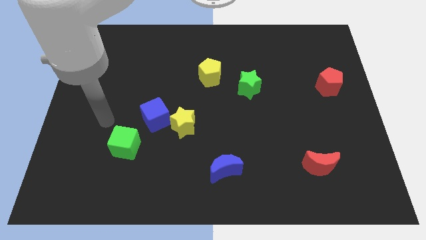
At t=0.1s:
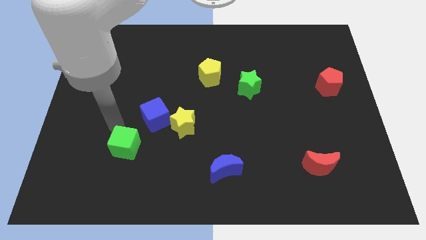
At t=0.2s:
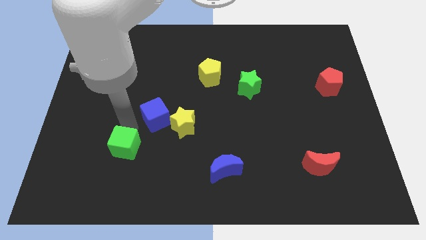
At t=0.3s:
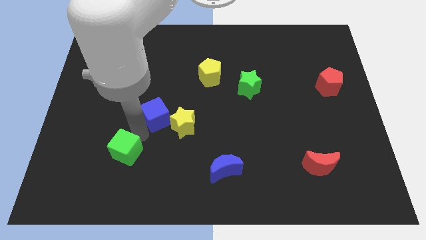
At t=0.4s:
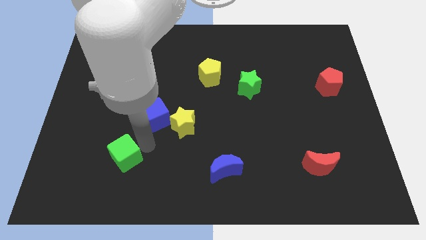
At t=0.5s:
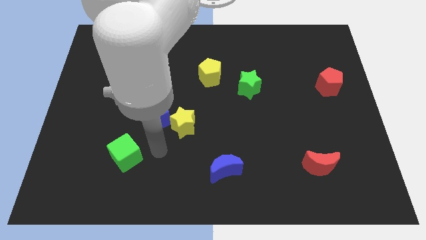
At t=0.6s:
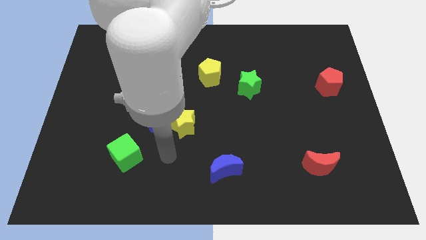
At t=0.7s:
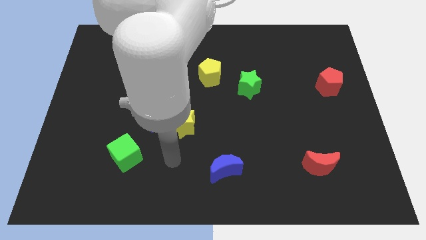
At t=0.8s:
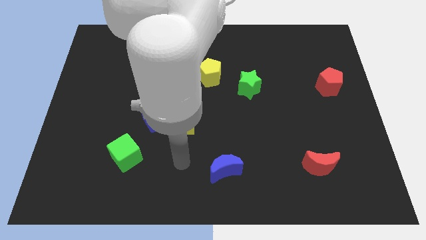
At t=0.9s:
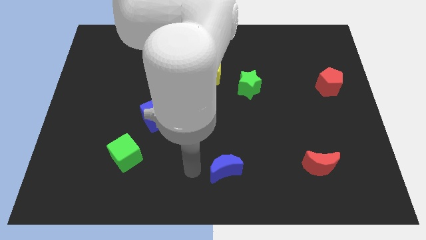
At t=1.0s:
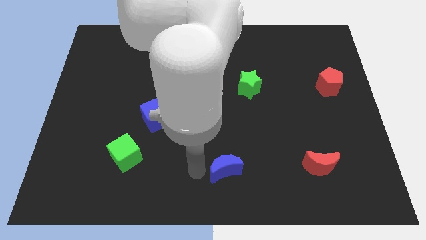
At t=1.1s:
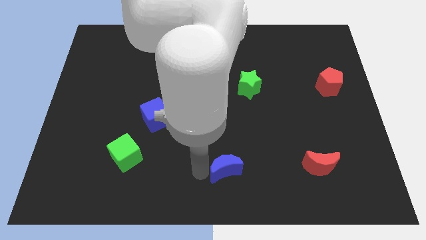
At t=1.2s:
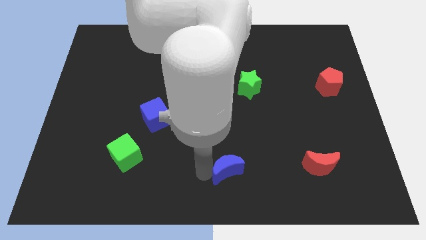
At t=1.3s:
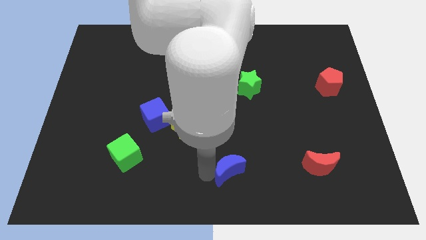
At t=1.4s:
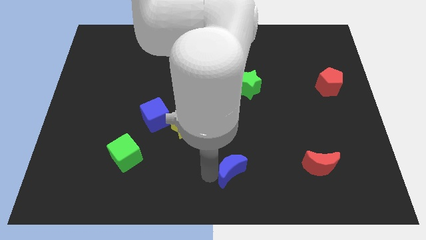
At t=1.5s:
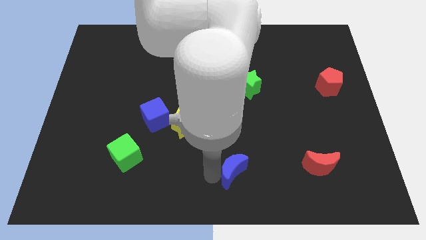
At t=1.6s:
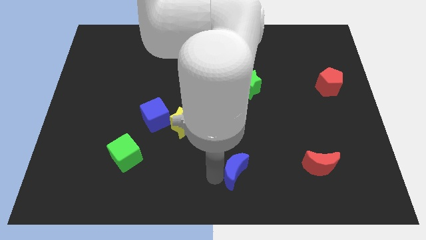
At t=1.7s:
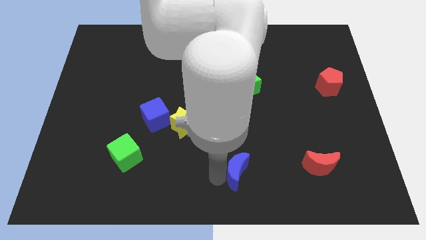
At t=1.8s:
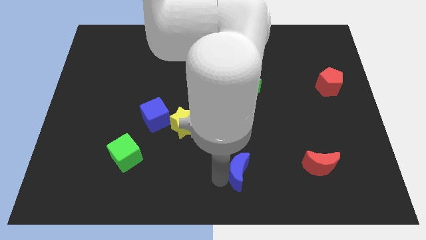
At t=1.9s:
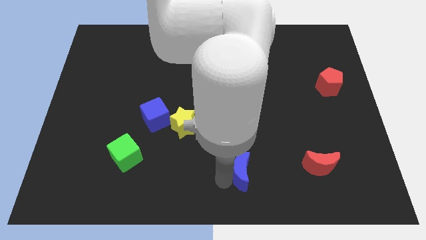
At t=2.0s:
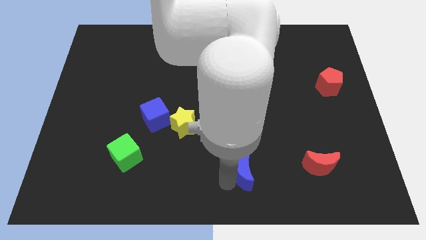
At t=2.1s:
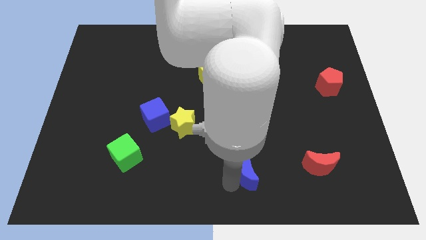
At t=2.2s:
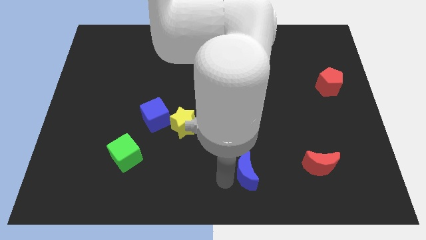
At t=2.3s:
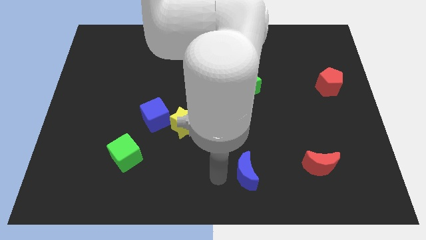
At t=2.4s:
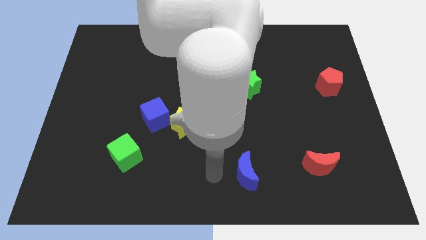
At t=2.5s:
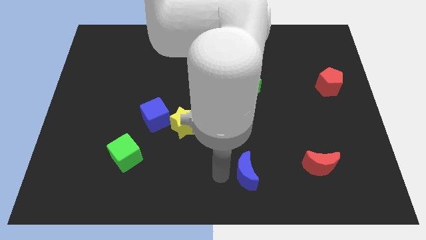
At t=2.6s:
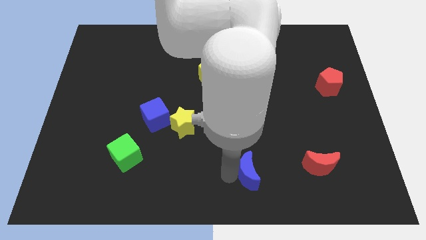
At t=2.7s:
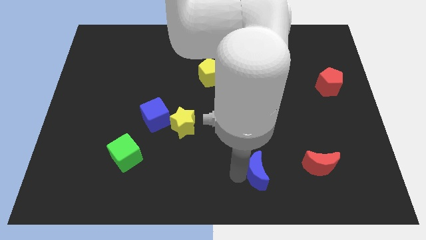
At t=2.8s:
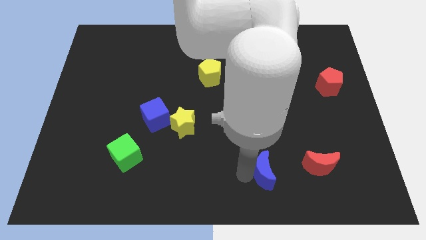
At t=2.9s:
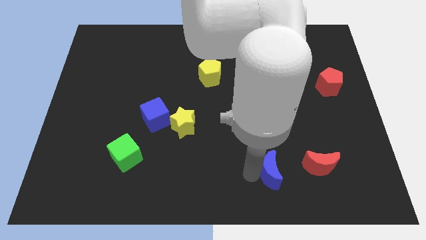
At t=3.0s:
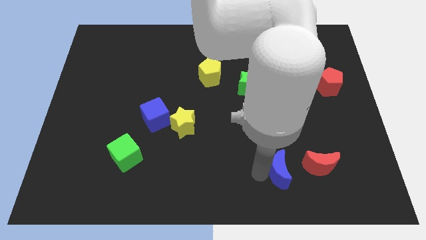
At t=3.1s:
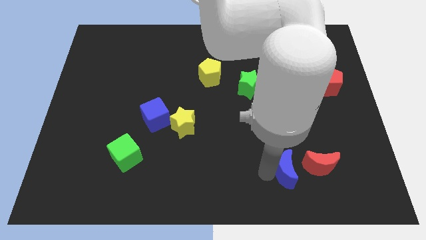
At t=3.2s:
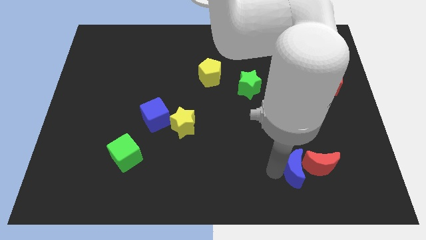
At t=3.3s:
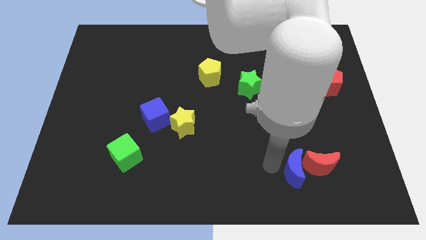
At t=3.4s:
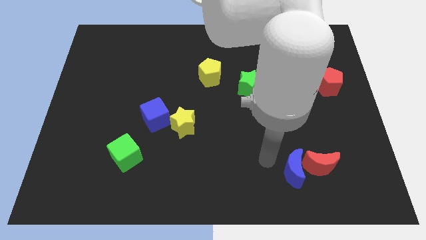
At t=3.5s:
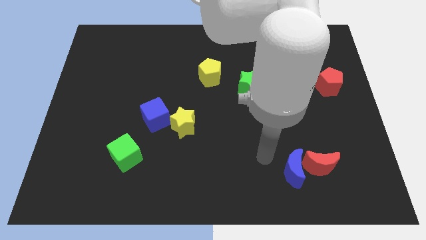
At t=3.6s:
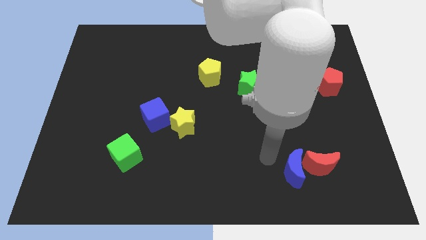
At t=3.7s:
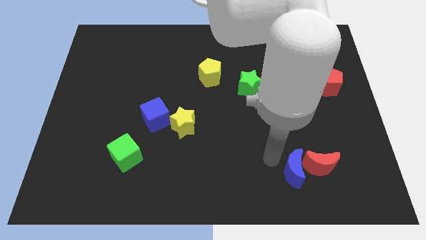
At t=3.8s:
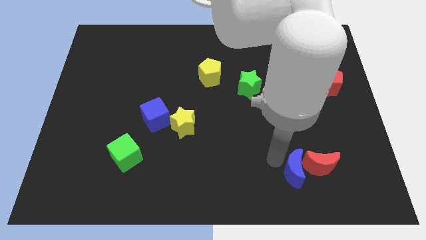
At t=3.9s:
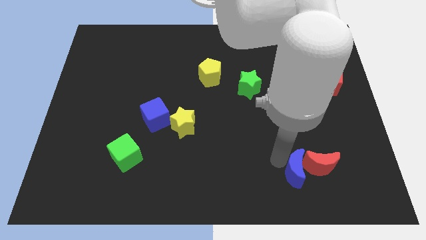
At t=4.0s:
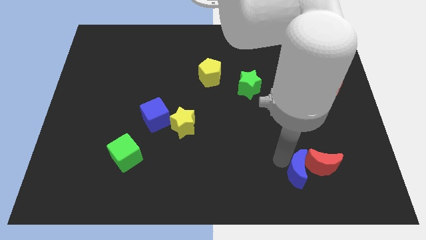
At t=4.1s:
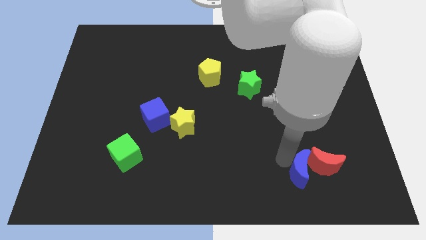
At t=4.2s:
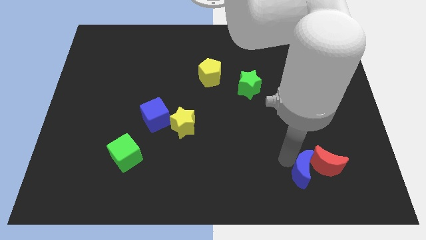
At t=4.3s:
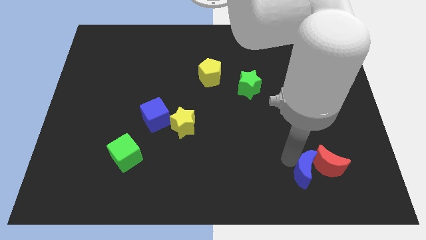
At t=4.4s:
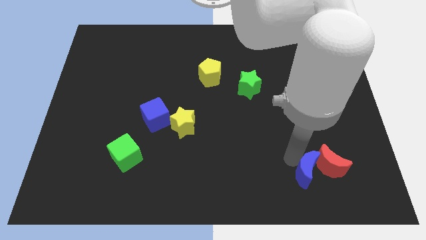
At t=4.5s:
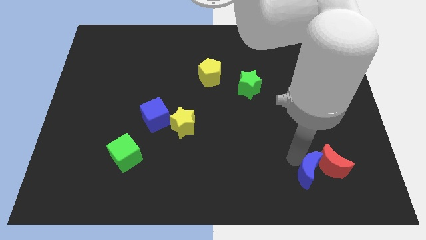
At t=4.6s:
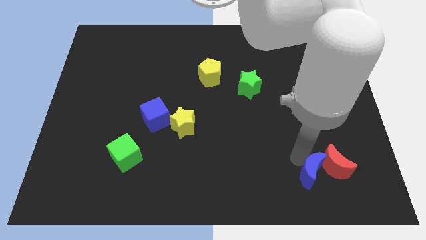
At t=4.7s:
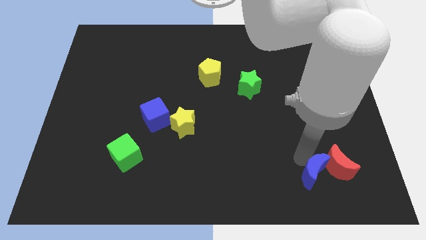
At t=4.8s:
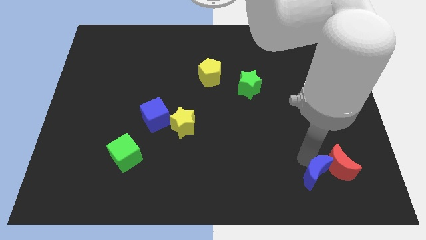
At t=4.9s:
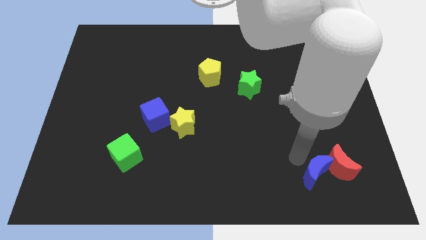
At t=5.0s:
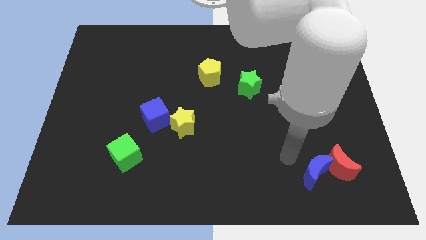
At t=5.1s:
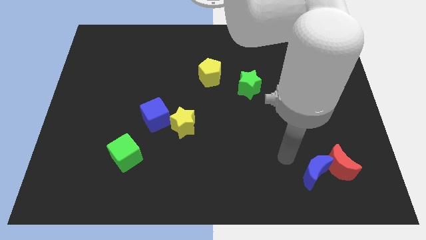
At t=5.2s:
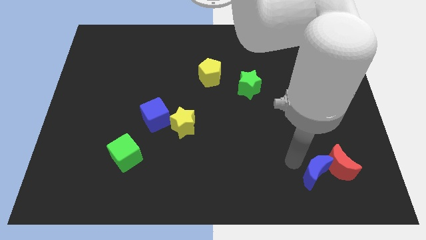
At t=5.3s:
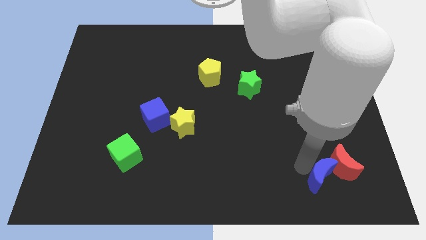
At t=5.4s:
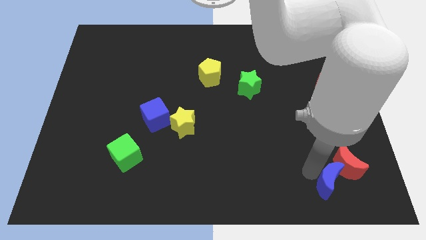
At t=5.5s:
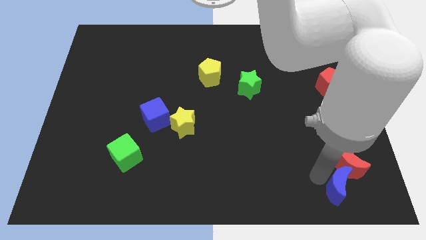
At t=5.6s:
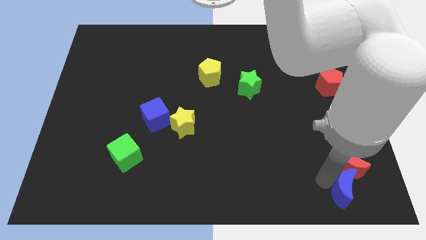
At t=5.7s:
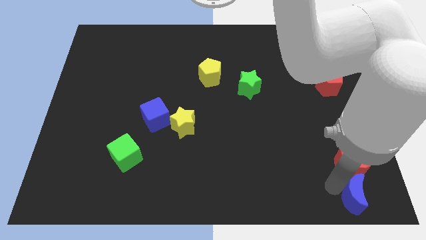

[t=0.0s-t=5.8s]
move the blue moon to the bottom right of the board

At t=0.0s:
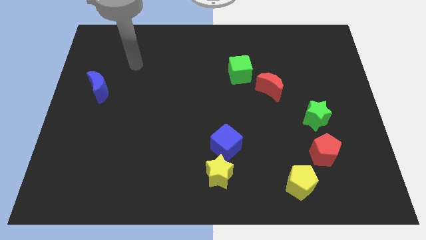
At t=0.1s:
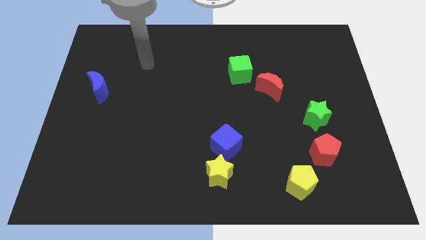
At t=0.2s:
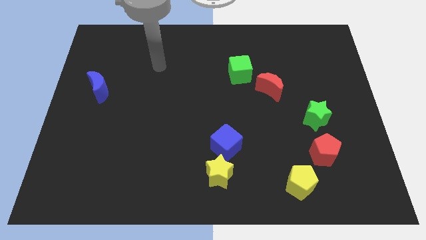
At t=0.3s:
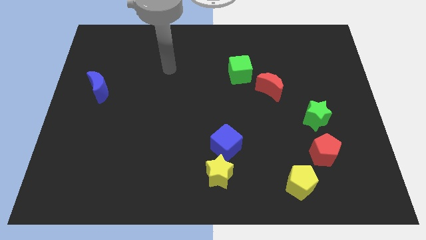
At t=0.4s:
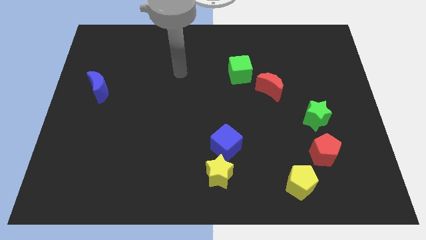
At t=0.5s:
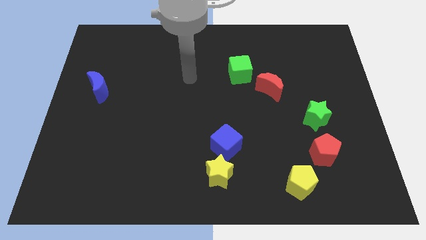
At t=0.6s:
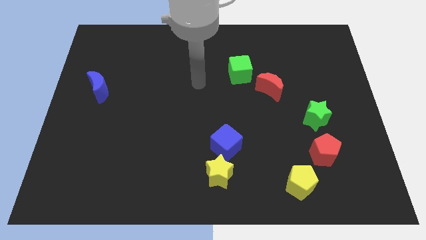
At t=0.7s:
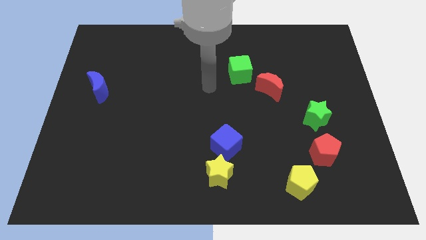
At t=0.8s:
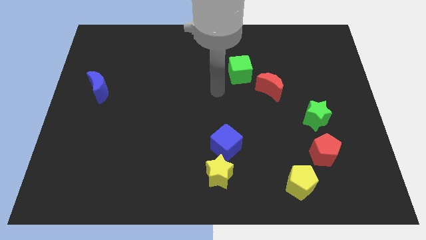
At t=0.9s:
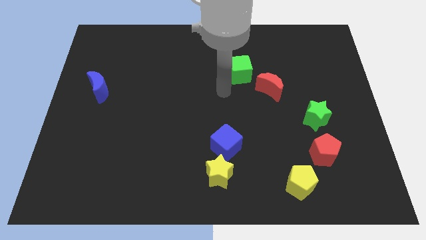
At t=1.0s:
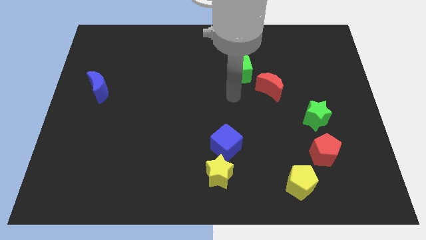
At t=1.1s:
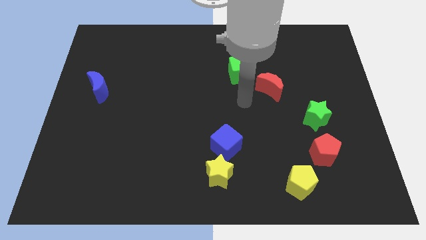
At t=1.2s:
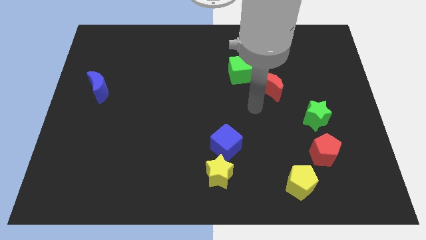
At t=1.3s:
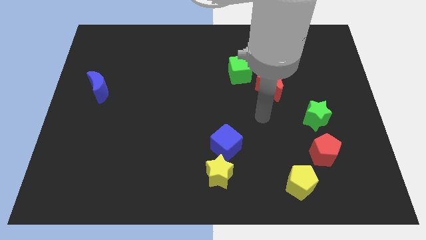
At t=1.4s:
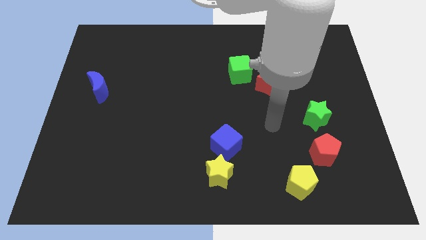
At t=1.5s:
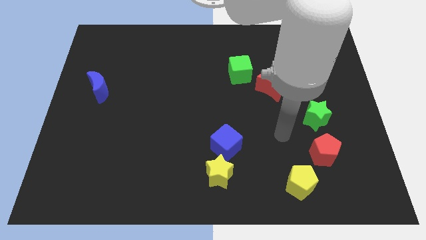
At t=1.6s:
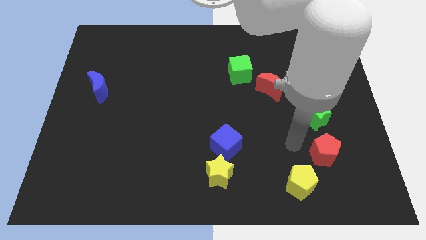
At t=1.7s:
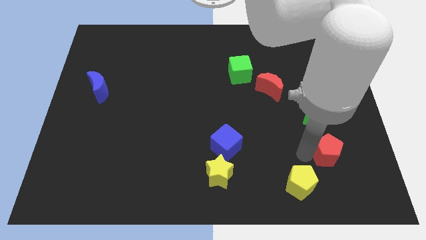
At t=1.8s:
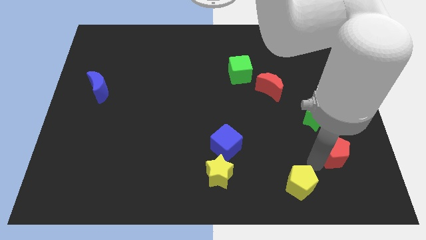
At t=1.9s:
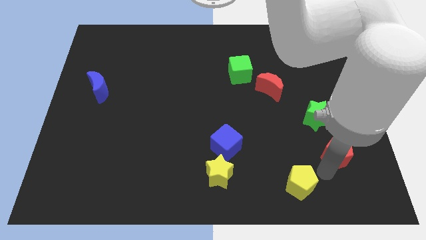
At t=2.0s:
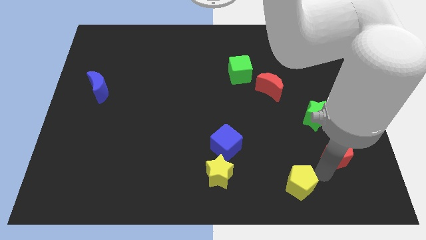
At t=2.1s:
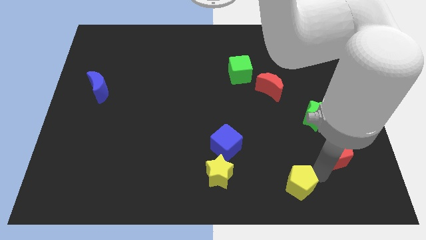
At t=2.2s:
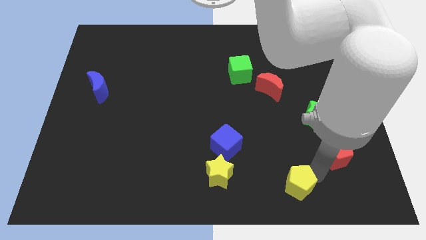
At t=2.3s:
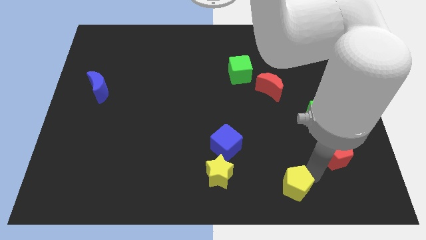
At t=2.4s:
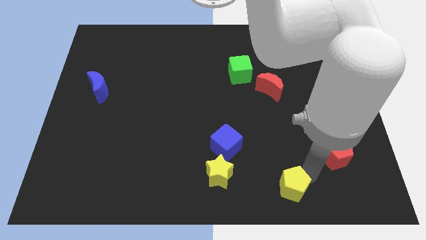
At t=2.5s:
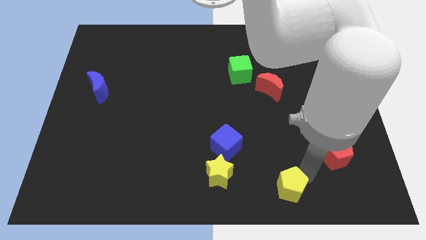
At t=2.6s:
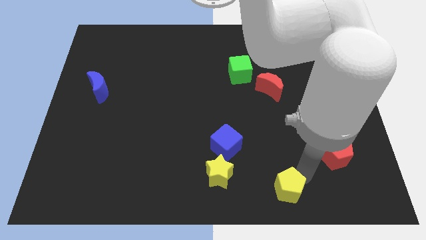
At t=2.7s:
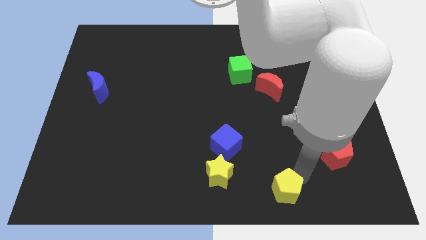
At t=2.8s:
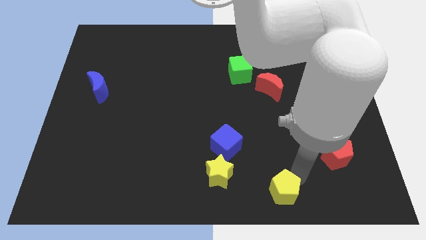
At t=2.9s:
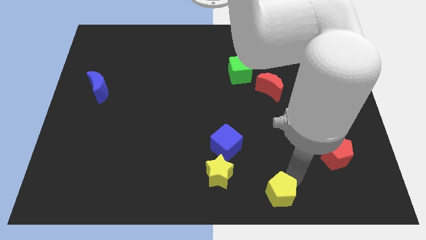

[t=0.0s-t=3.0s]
push the yellow pentagon to the bottom
